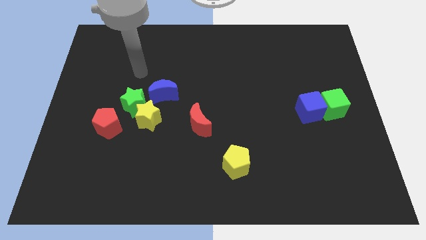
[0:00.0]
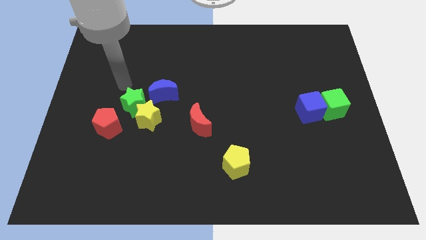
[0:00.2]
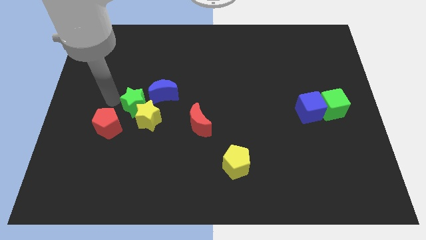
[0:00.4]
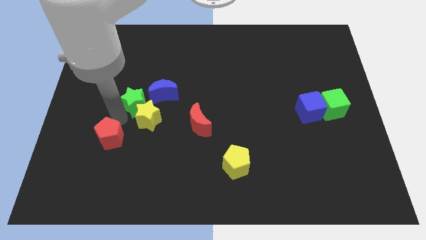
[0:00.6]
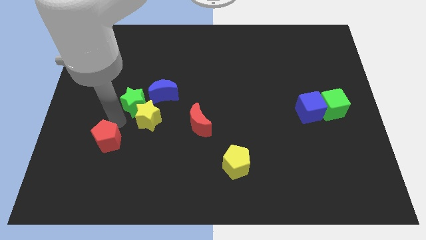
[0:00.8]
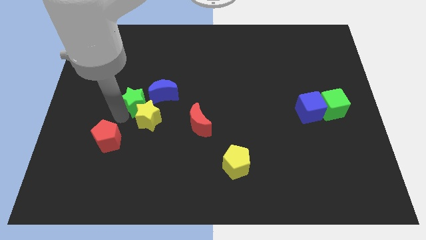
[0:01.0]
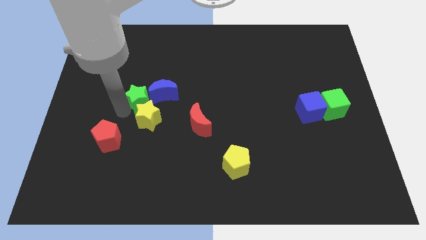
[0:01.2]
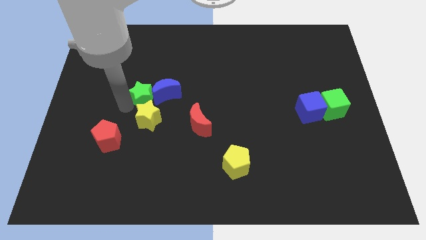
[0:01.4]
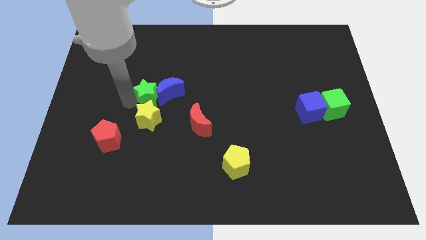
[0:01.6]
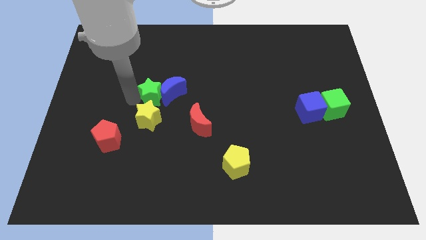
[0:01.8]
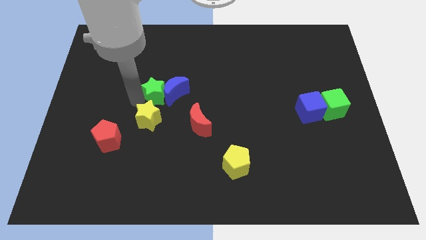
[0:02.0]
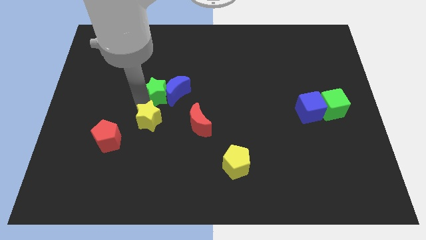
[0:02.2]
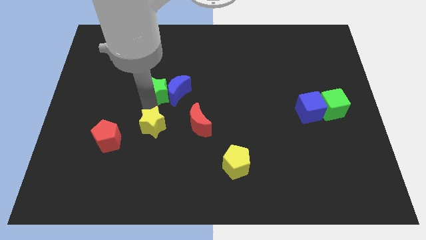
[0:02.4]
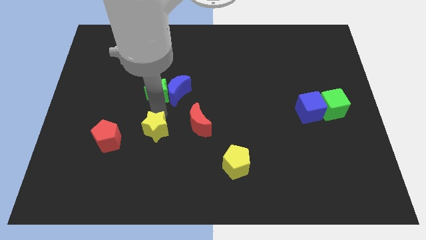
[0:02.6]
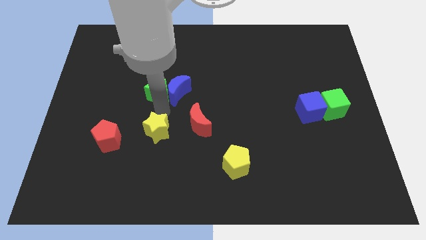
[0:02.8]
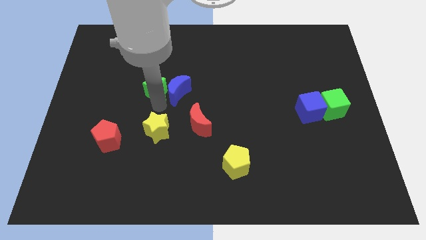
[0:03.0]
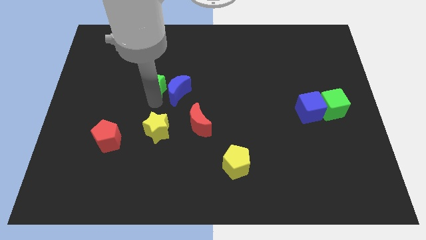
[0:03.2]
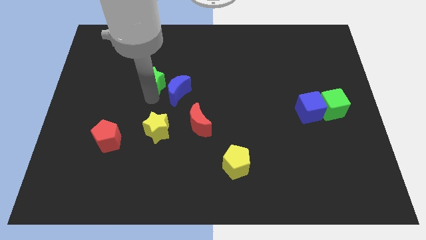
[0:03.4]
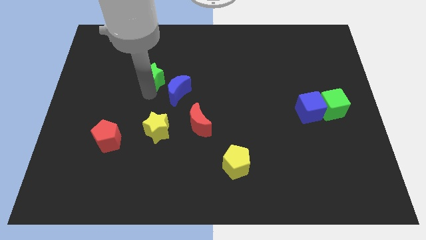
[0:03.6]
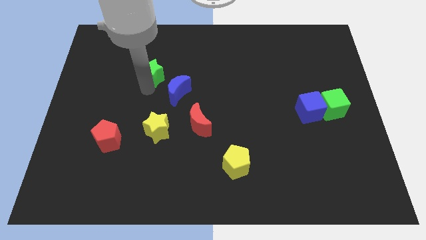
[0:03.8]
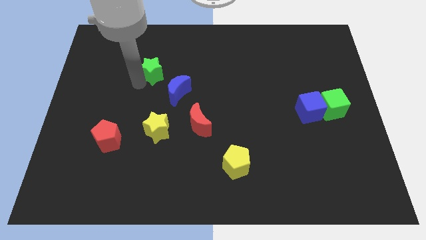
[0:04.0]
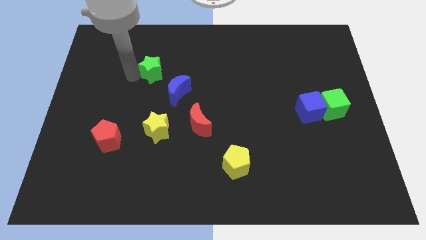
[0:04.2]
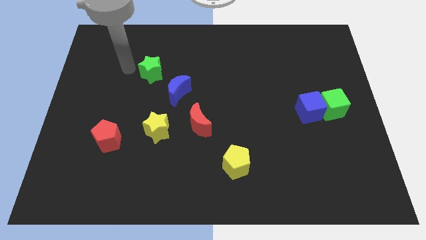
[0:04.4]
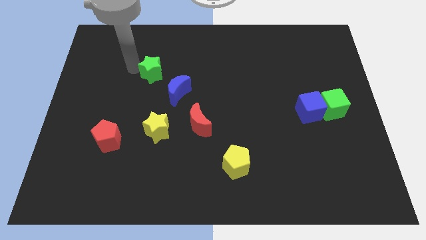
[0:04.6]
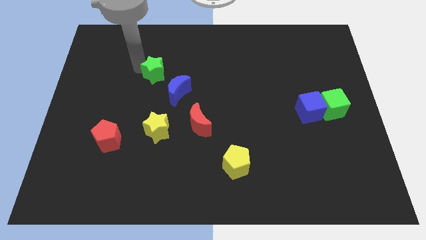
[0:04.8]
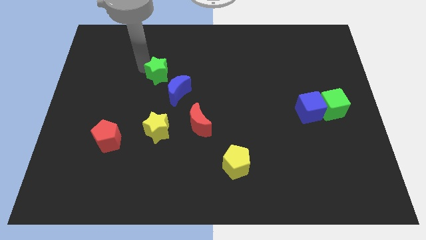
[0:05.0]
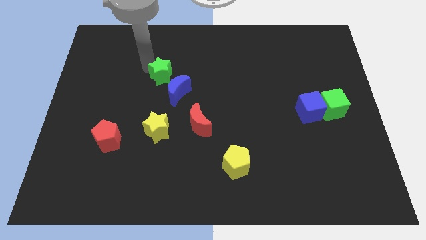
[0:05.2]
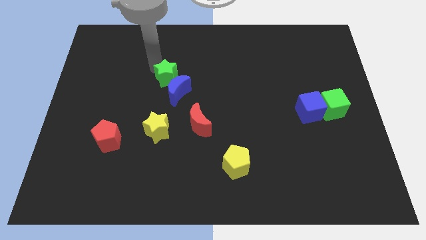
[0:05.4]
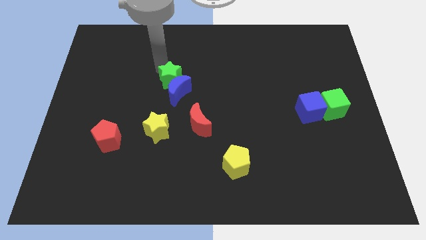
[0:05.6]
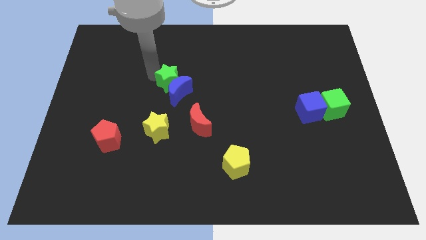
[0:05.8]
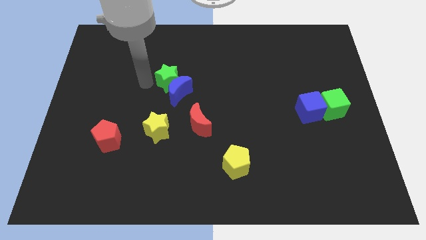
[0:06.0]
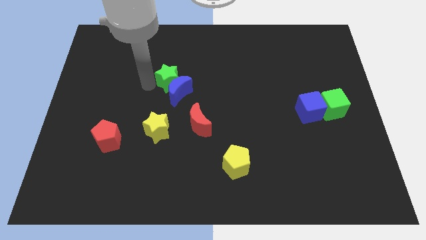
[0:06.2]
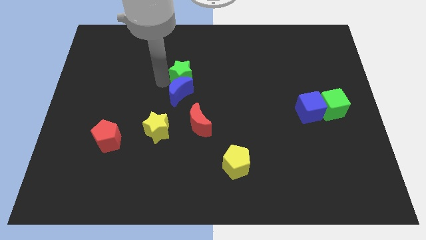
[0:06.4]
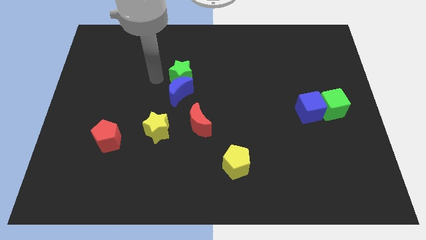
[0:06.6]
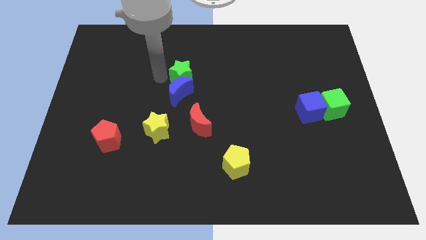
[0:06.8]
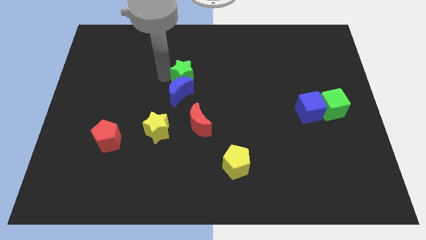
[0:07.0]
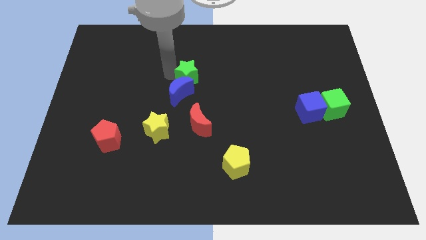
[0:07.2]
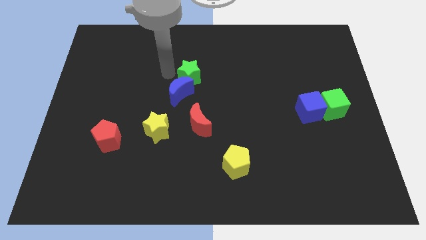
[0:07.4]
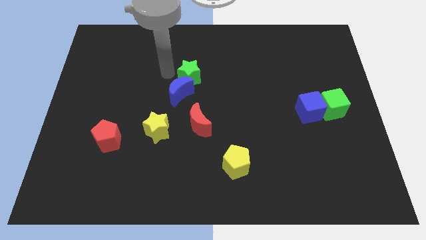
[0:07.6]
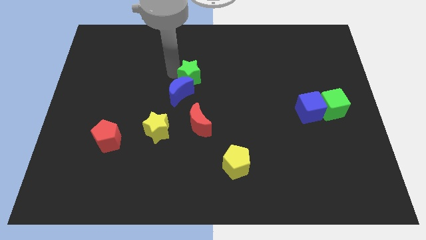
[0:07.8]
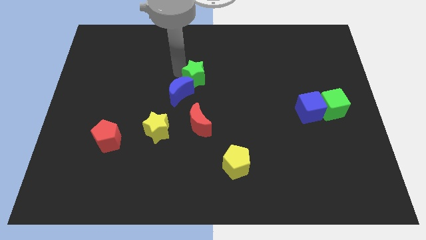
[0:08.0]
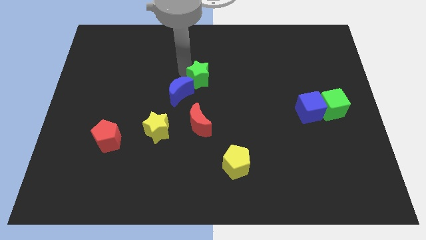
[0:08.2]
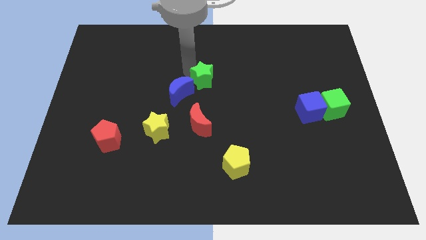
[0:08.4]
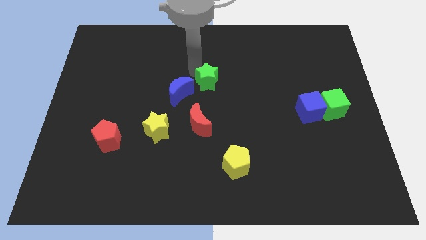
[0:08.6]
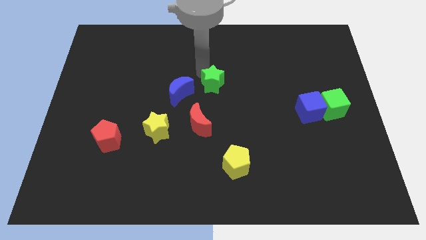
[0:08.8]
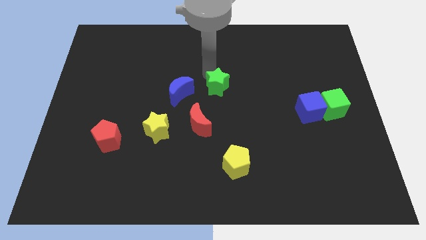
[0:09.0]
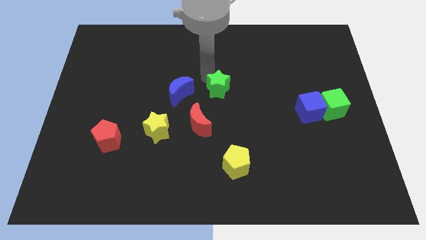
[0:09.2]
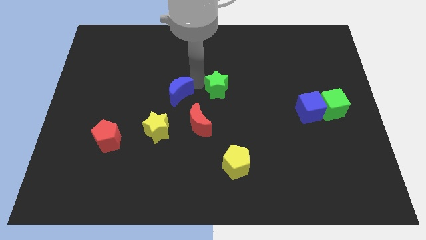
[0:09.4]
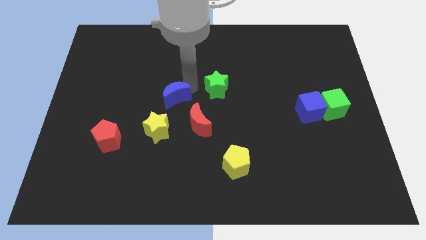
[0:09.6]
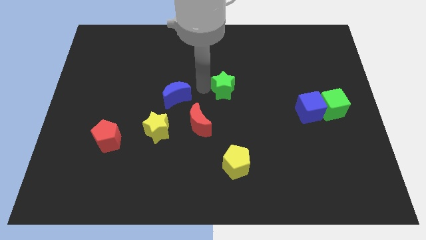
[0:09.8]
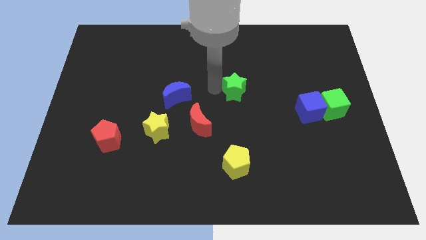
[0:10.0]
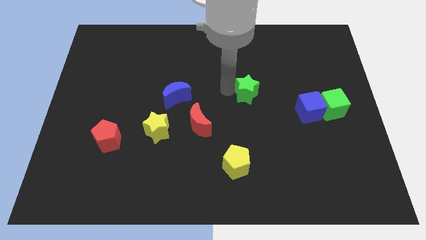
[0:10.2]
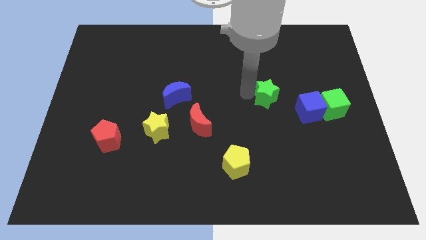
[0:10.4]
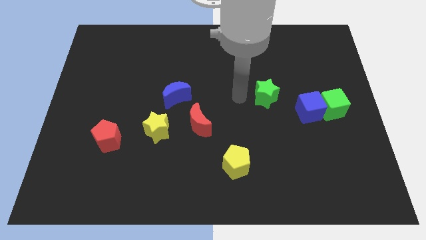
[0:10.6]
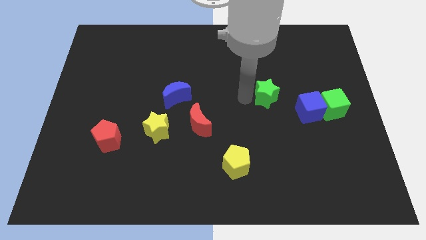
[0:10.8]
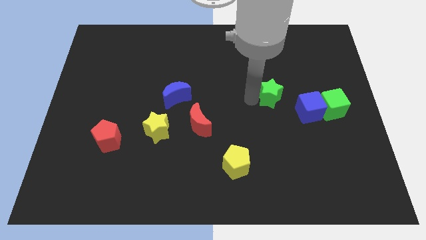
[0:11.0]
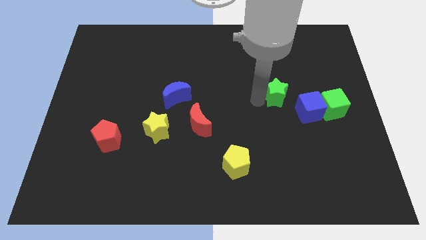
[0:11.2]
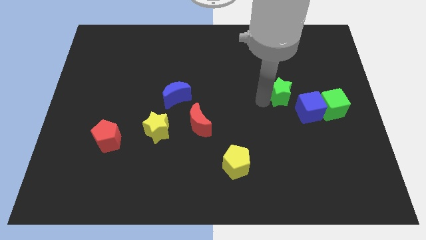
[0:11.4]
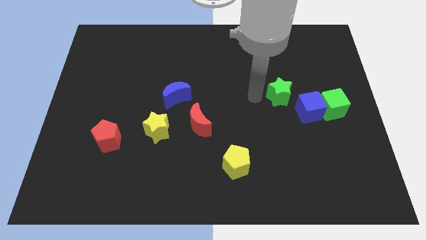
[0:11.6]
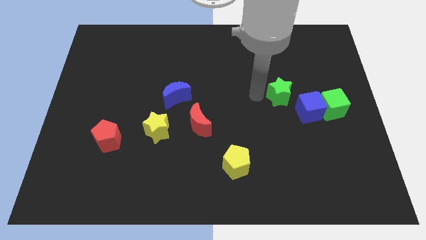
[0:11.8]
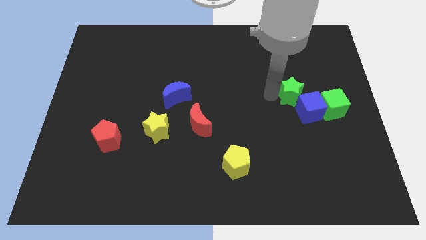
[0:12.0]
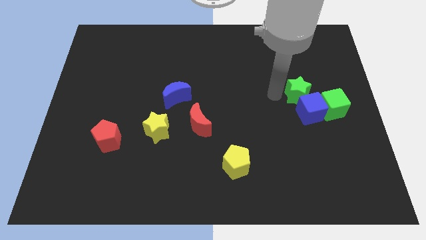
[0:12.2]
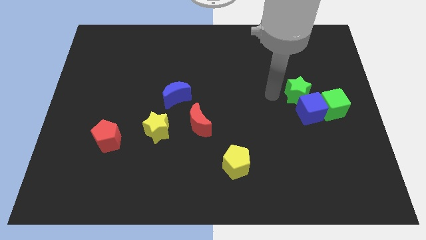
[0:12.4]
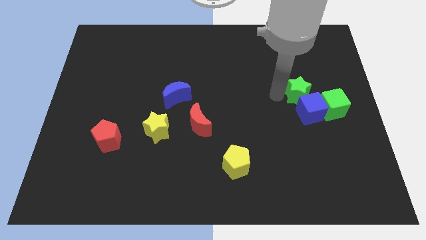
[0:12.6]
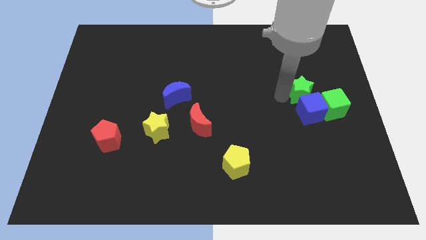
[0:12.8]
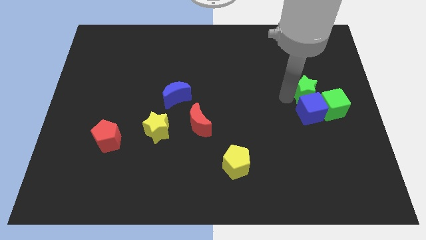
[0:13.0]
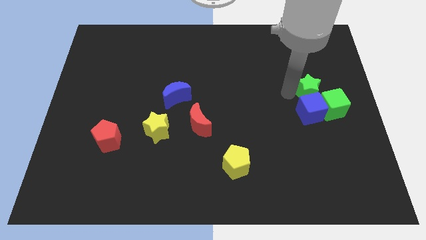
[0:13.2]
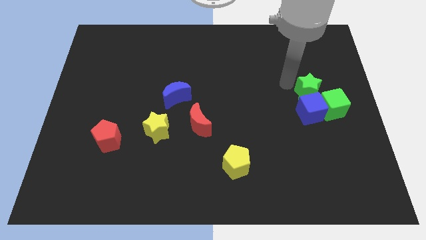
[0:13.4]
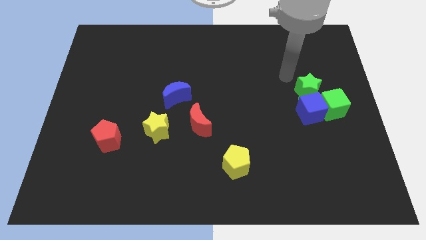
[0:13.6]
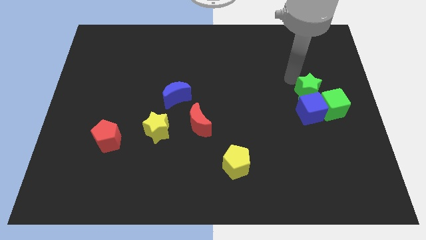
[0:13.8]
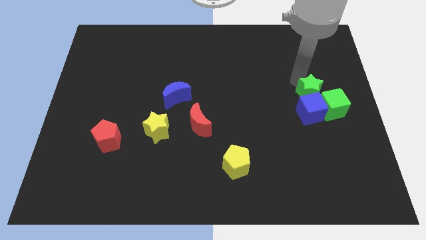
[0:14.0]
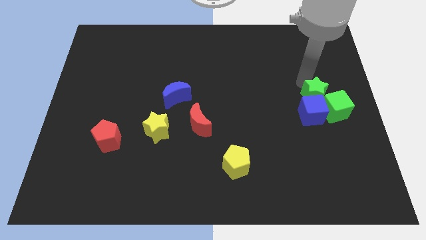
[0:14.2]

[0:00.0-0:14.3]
put the green star next to the green cube

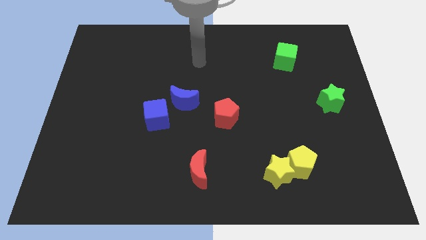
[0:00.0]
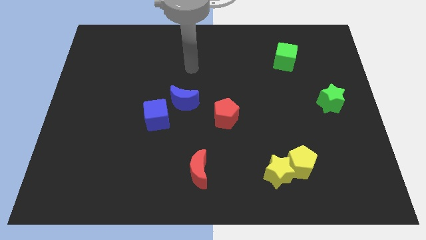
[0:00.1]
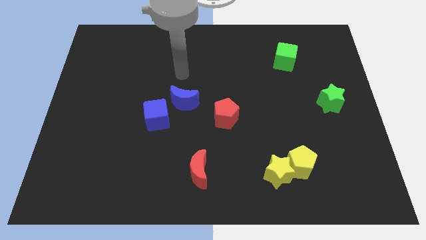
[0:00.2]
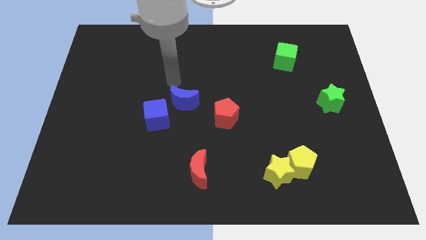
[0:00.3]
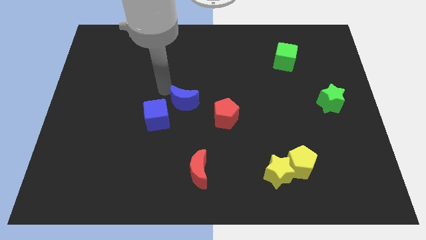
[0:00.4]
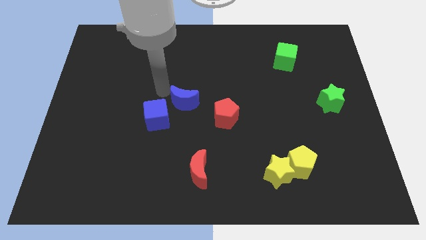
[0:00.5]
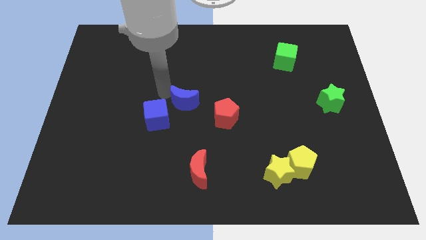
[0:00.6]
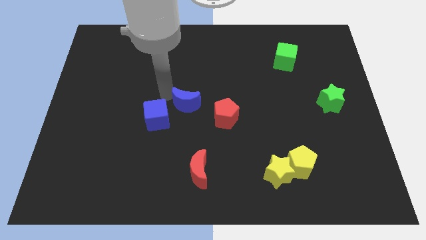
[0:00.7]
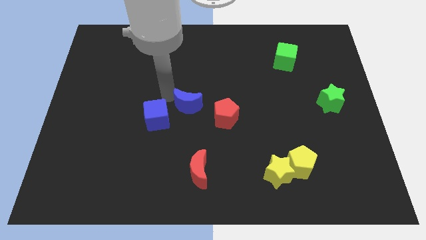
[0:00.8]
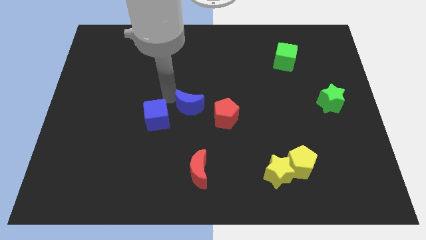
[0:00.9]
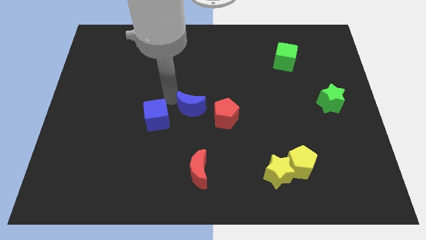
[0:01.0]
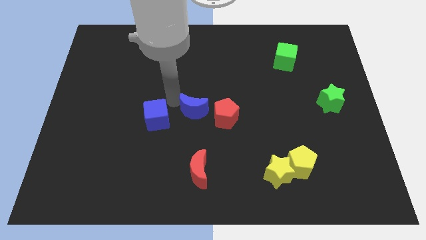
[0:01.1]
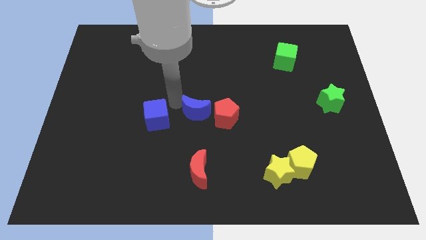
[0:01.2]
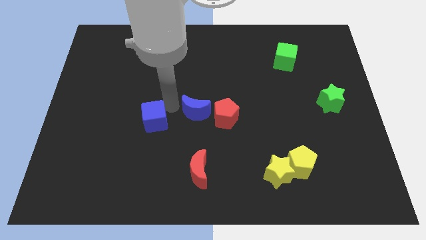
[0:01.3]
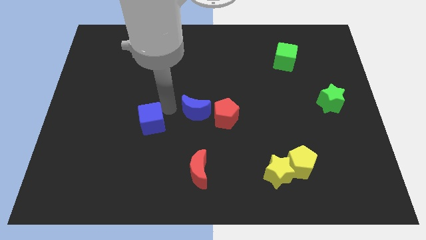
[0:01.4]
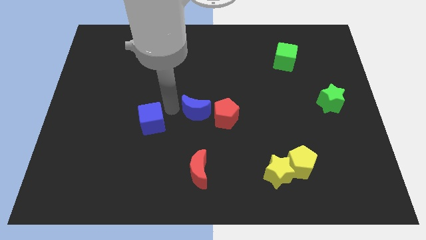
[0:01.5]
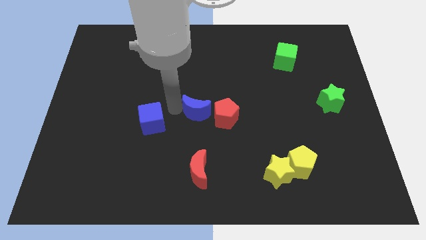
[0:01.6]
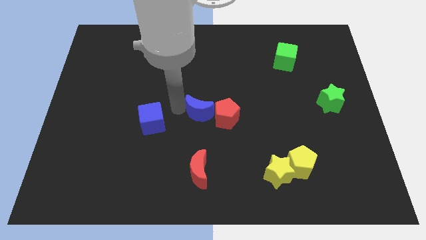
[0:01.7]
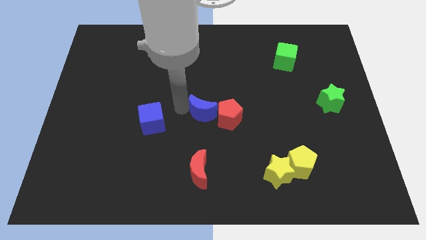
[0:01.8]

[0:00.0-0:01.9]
move the blue moon to the red pentagon
